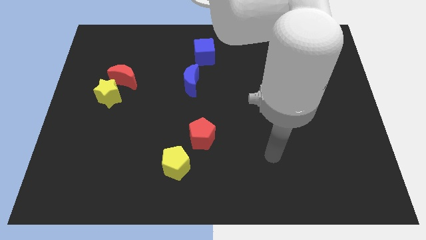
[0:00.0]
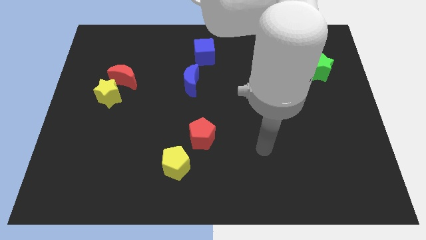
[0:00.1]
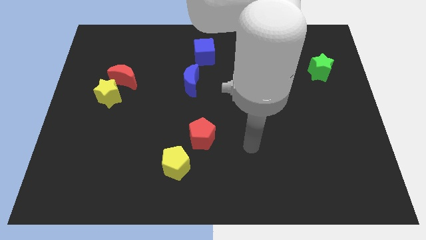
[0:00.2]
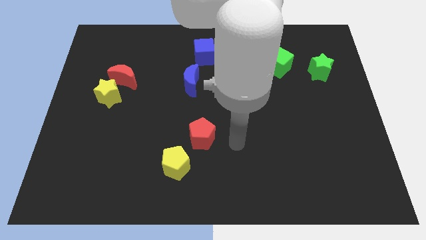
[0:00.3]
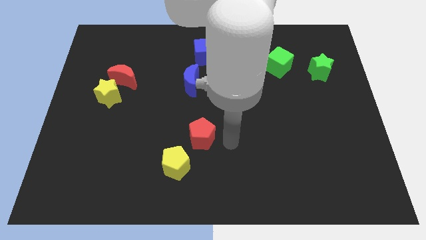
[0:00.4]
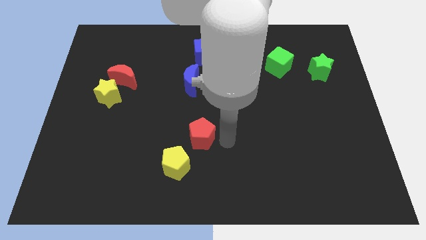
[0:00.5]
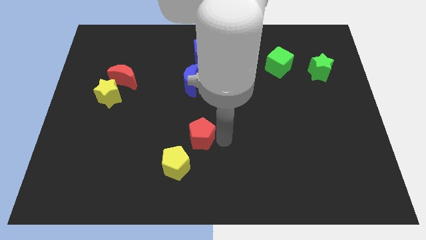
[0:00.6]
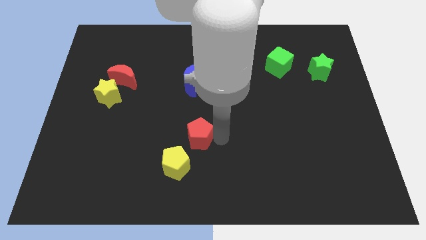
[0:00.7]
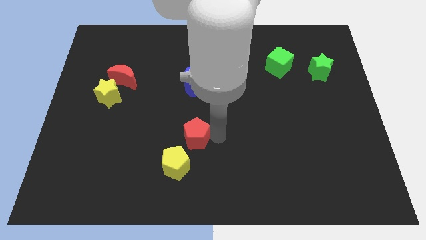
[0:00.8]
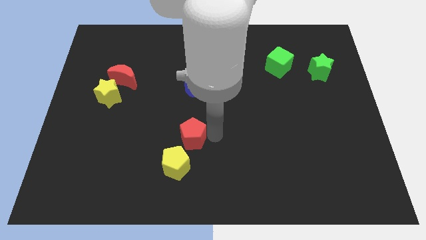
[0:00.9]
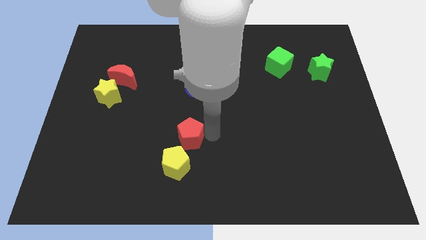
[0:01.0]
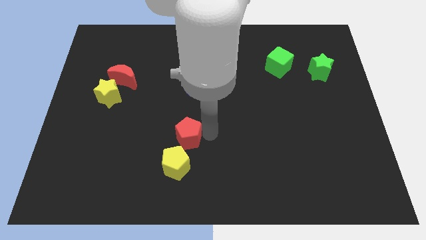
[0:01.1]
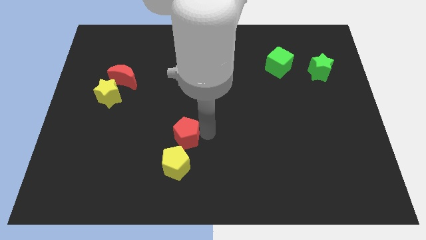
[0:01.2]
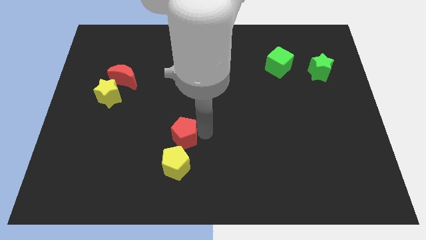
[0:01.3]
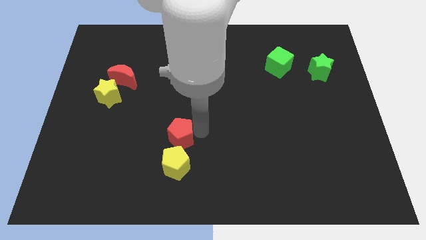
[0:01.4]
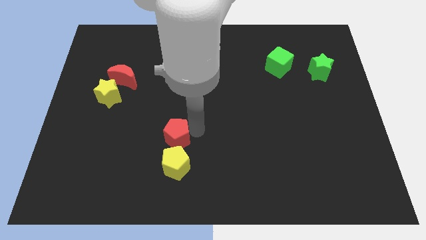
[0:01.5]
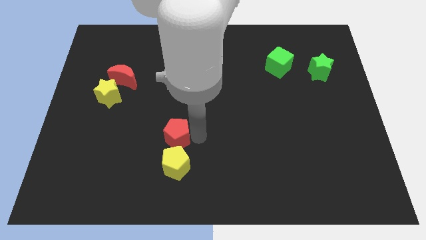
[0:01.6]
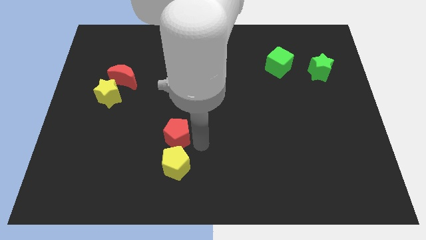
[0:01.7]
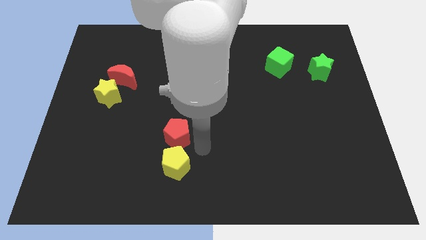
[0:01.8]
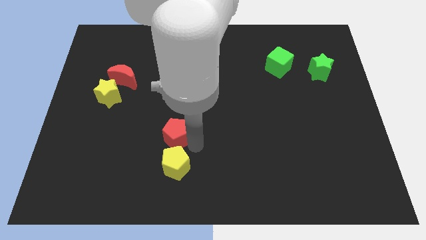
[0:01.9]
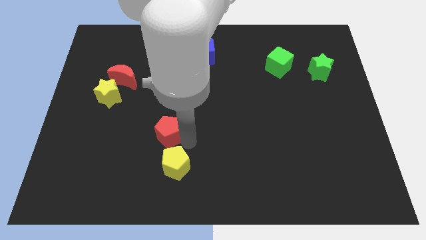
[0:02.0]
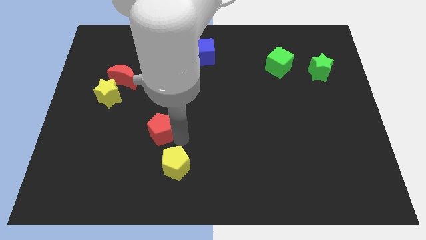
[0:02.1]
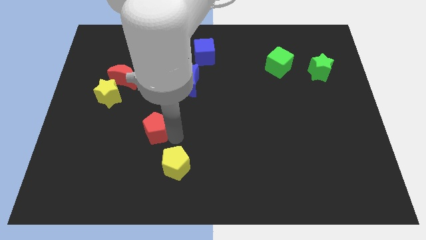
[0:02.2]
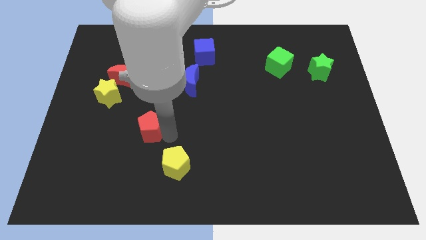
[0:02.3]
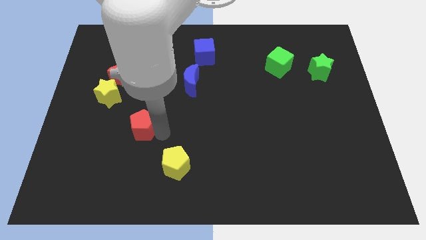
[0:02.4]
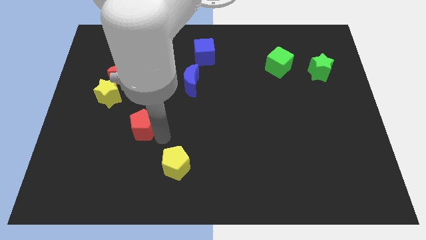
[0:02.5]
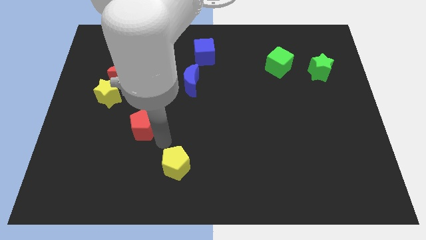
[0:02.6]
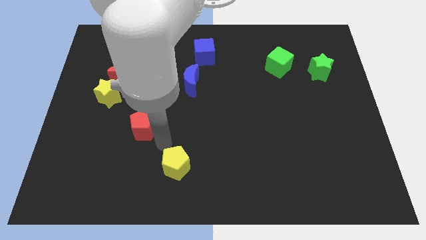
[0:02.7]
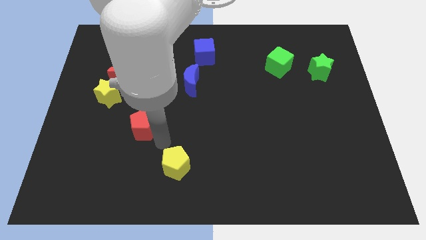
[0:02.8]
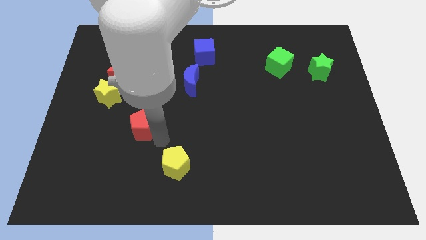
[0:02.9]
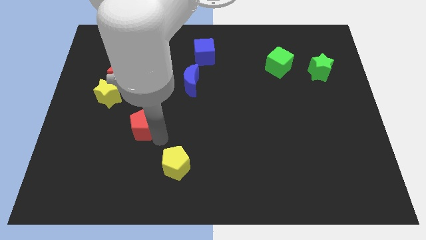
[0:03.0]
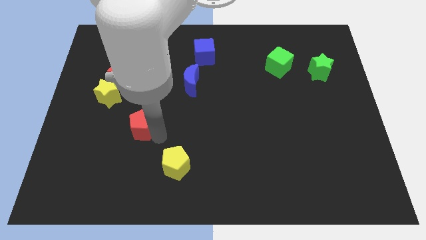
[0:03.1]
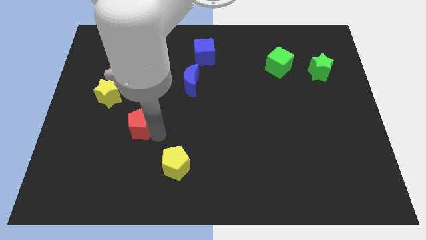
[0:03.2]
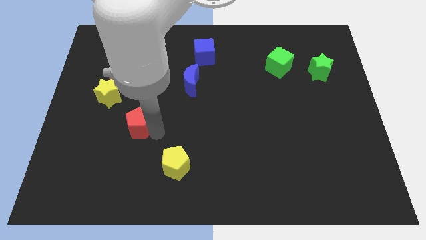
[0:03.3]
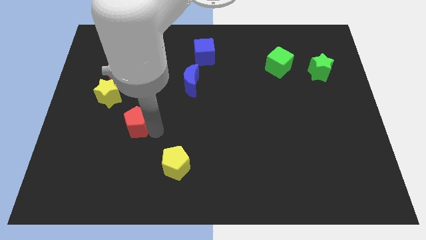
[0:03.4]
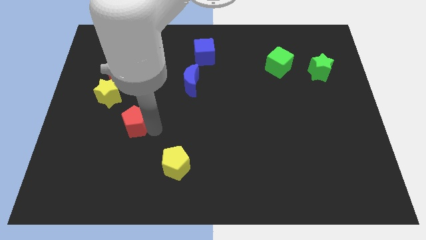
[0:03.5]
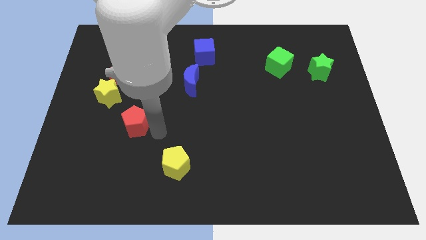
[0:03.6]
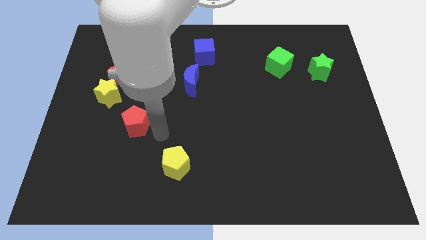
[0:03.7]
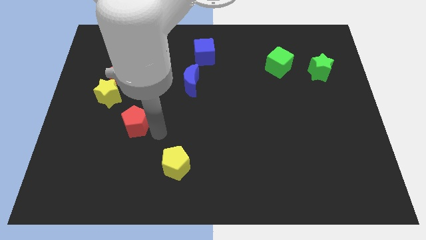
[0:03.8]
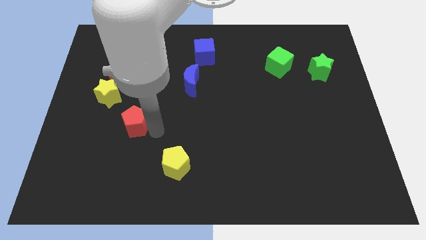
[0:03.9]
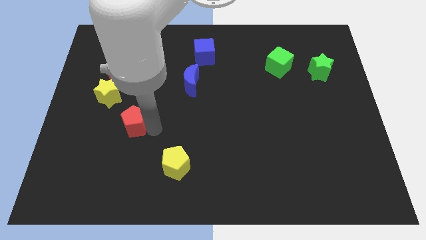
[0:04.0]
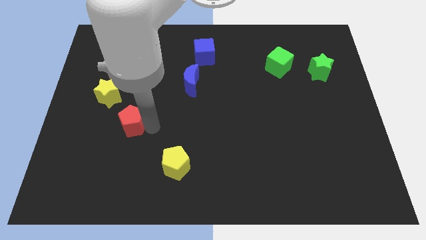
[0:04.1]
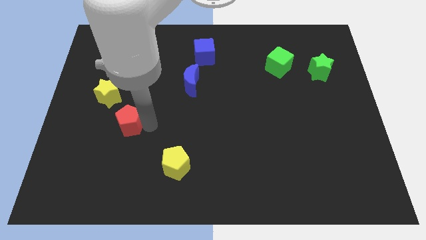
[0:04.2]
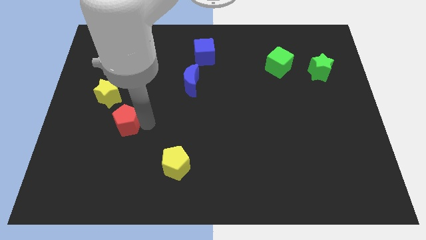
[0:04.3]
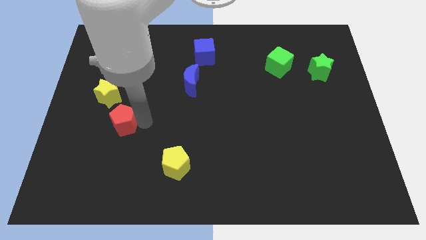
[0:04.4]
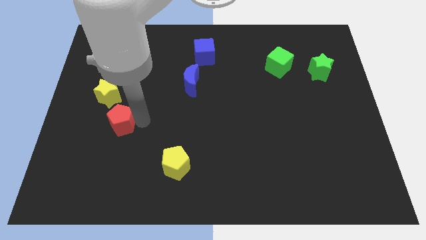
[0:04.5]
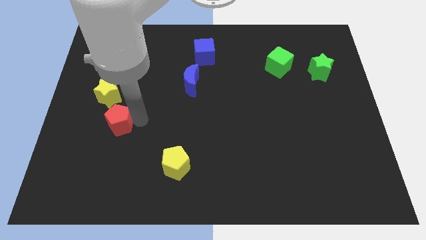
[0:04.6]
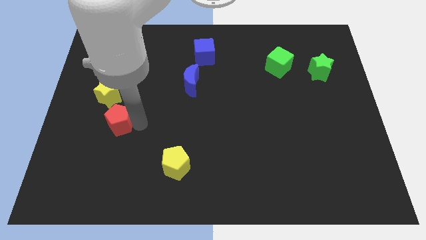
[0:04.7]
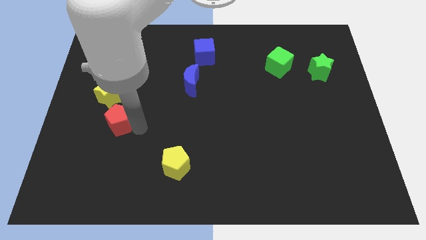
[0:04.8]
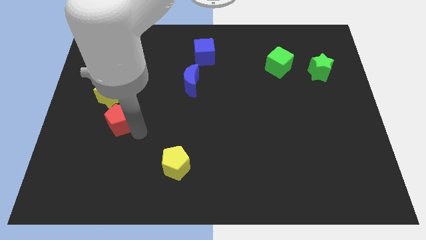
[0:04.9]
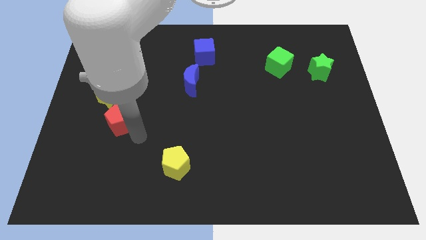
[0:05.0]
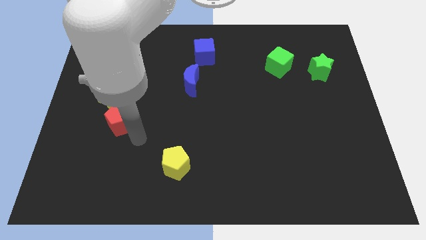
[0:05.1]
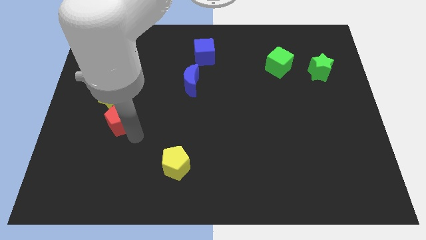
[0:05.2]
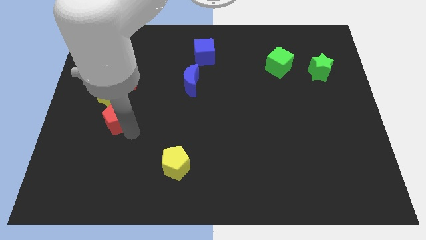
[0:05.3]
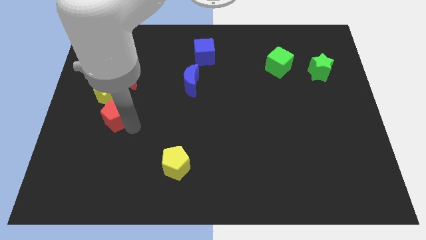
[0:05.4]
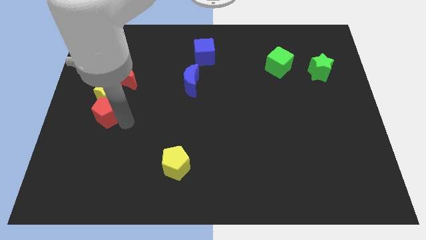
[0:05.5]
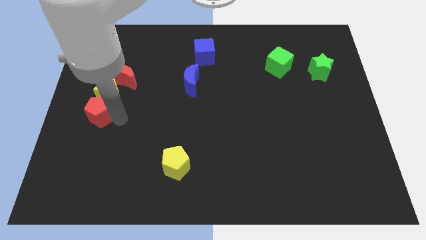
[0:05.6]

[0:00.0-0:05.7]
put the red pentagon to the left side of the board
